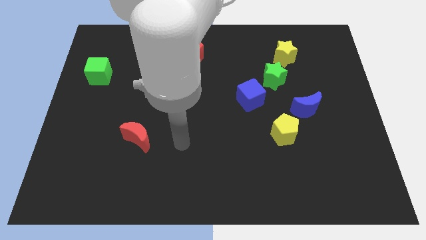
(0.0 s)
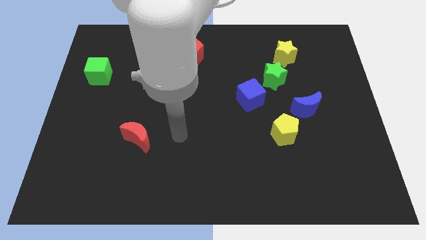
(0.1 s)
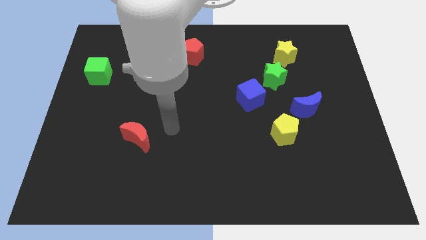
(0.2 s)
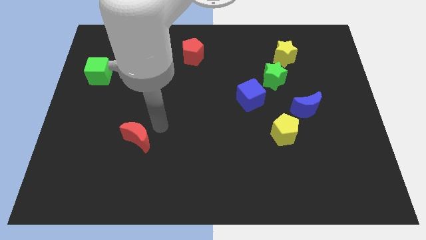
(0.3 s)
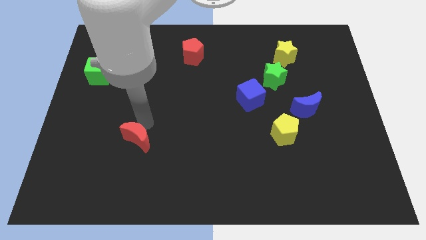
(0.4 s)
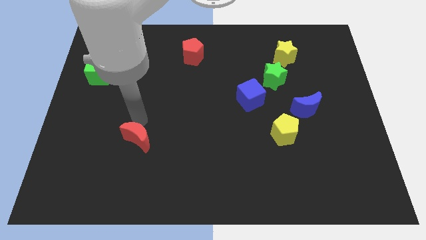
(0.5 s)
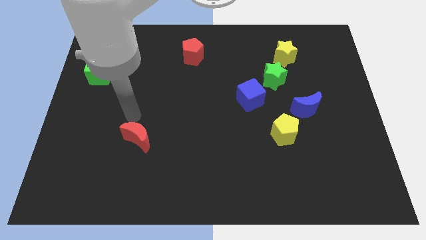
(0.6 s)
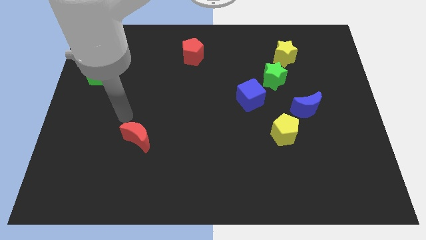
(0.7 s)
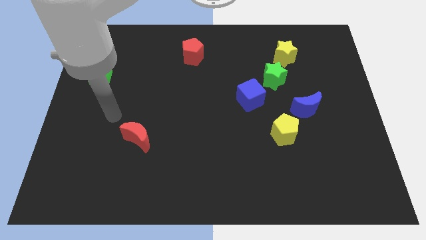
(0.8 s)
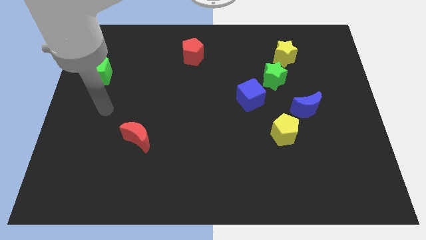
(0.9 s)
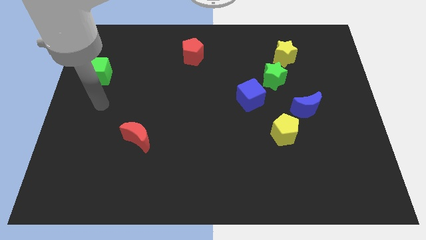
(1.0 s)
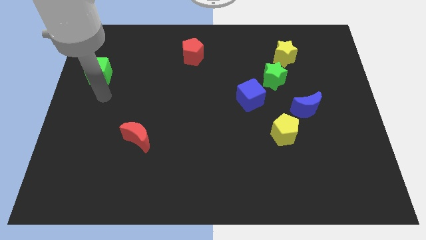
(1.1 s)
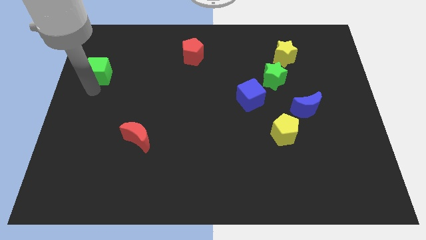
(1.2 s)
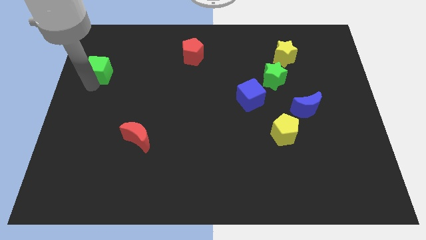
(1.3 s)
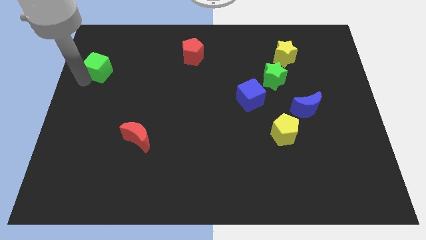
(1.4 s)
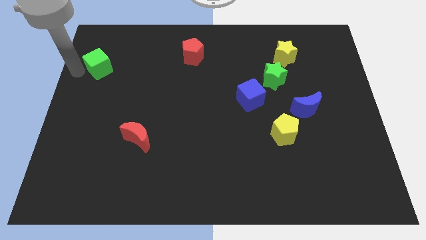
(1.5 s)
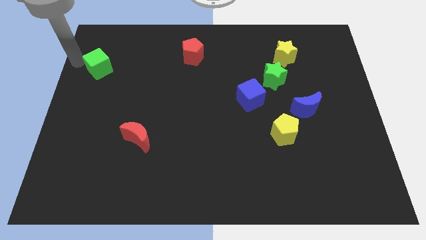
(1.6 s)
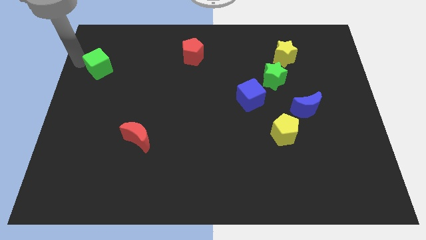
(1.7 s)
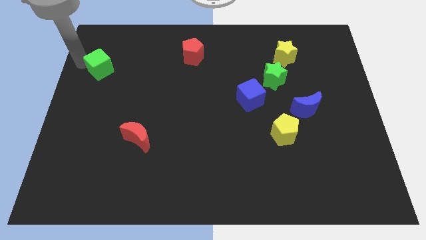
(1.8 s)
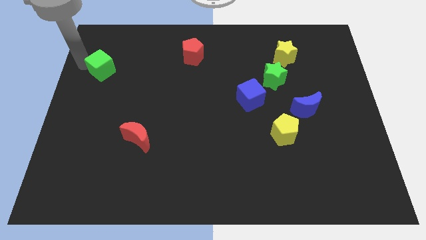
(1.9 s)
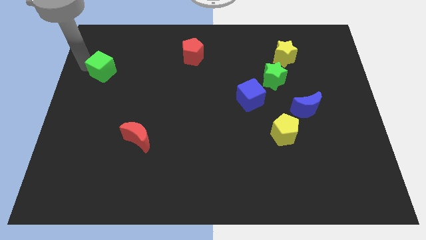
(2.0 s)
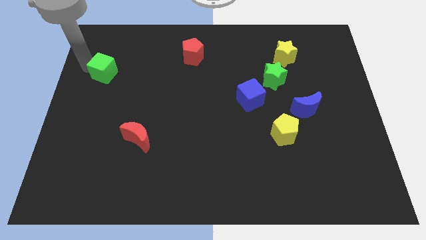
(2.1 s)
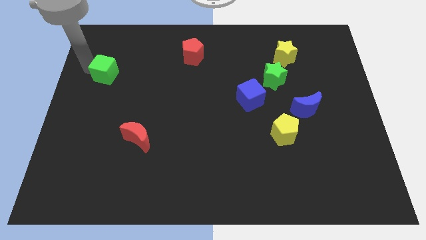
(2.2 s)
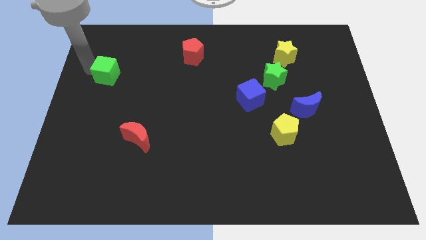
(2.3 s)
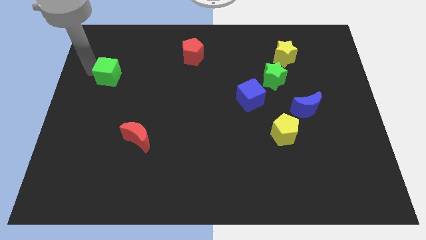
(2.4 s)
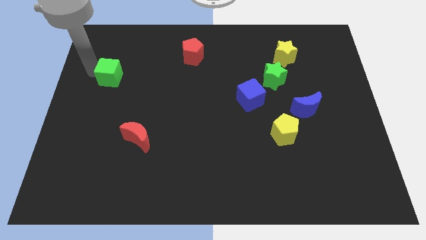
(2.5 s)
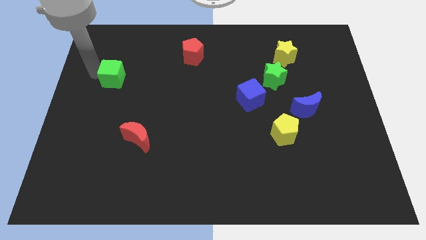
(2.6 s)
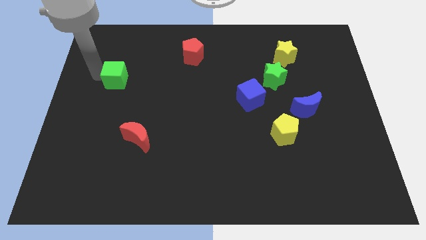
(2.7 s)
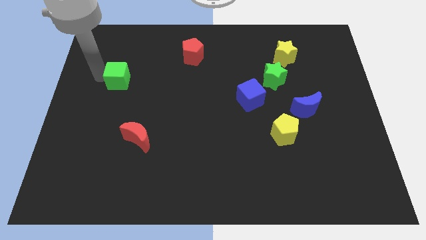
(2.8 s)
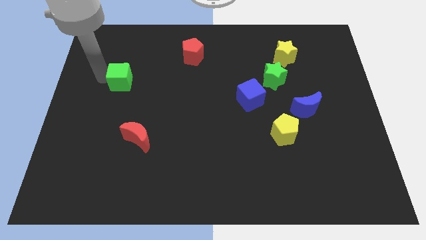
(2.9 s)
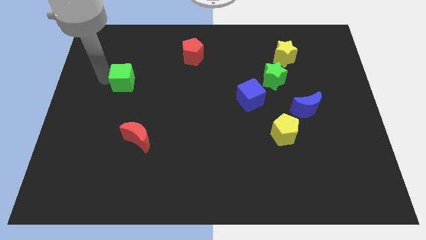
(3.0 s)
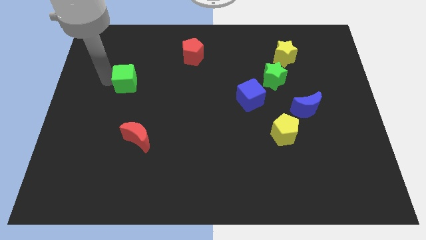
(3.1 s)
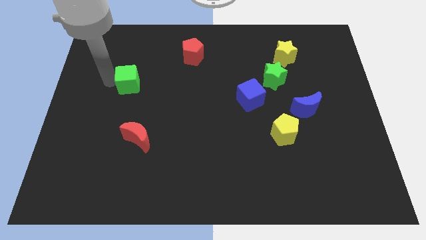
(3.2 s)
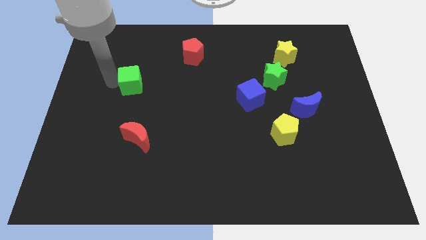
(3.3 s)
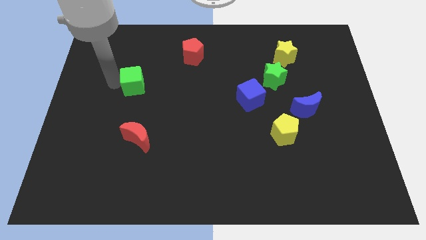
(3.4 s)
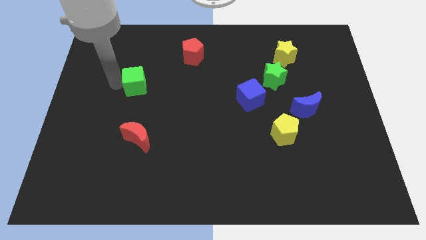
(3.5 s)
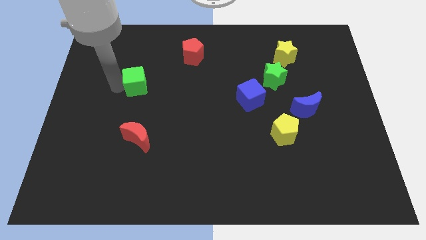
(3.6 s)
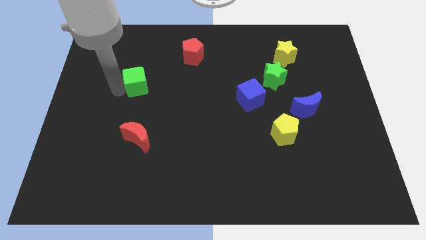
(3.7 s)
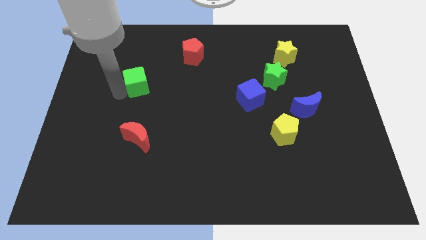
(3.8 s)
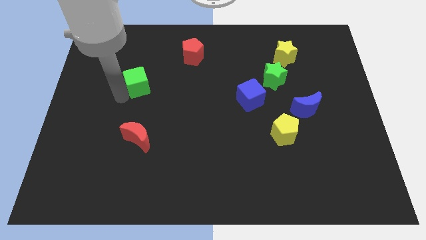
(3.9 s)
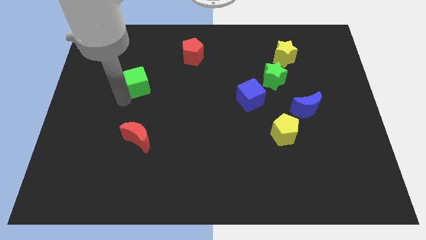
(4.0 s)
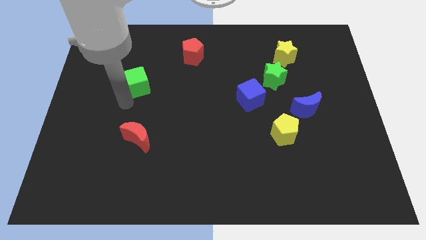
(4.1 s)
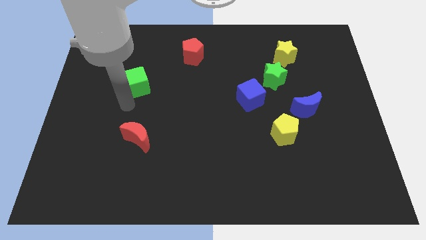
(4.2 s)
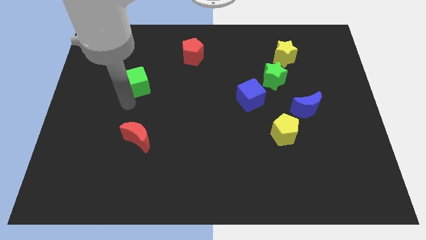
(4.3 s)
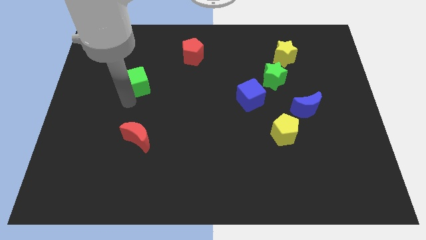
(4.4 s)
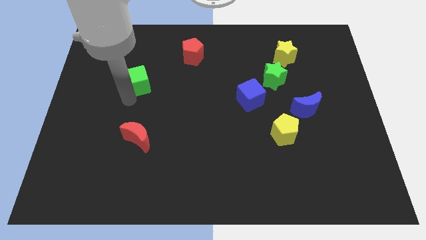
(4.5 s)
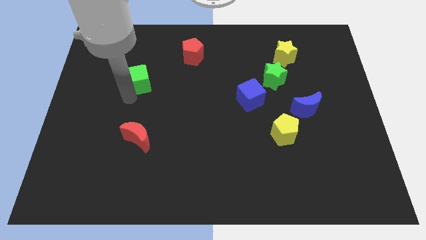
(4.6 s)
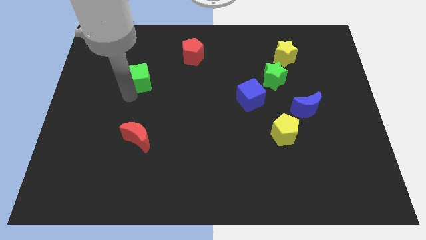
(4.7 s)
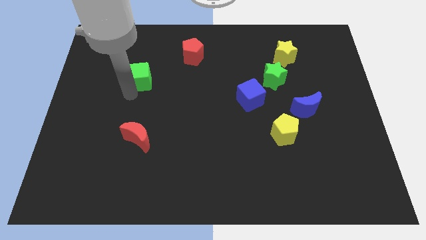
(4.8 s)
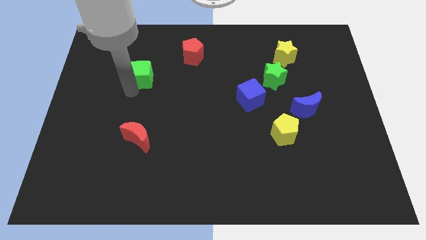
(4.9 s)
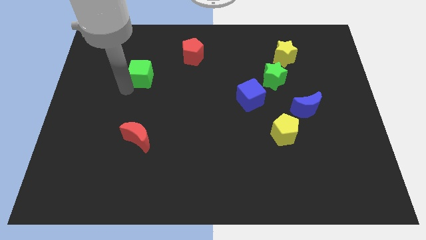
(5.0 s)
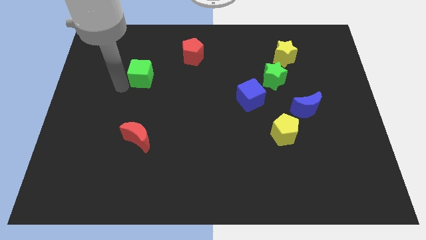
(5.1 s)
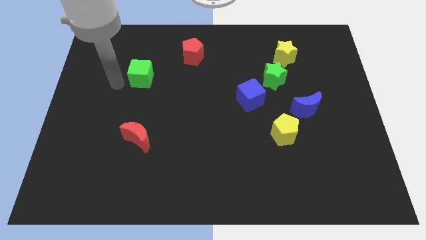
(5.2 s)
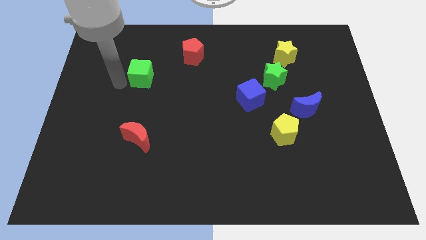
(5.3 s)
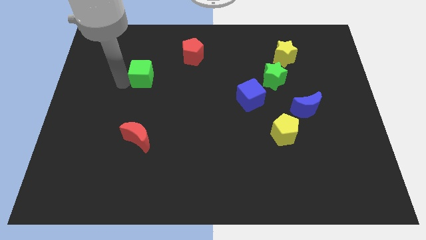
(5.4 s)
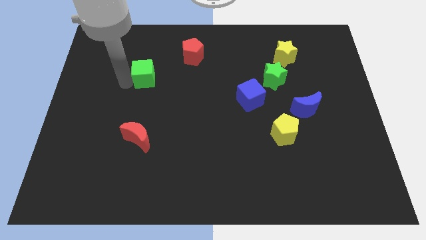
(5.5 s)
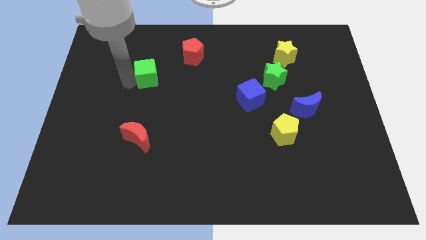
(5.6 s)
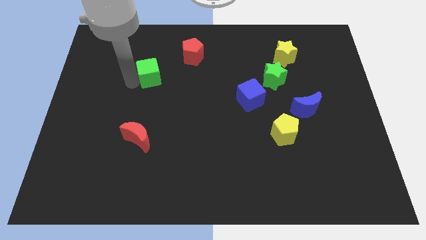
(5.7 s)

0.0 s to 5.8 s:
slide the green cube to the bottom left side of the red pentagon

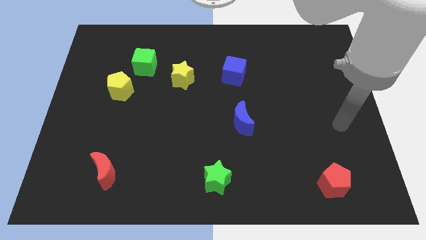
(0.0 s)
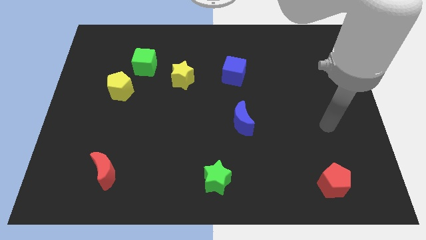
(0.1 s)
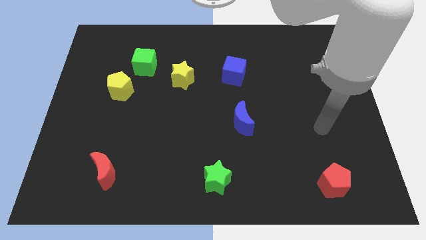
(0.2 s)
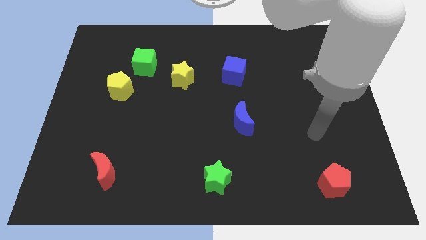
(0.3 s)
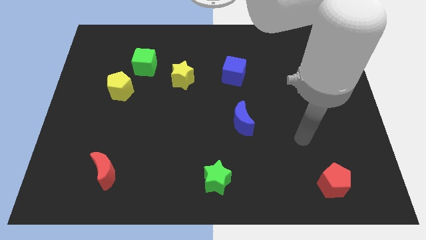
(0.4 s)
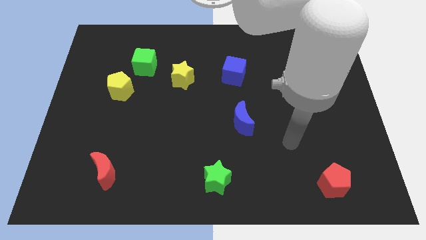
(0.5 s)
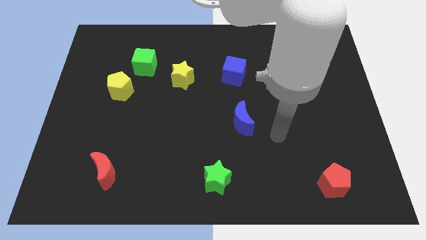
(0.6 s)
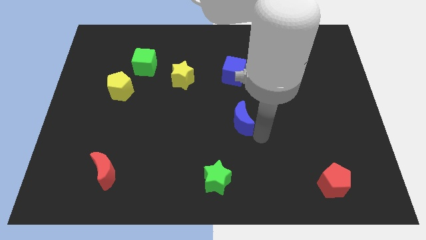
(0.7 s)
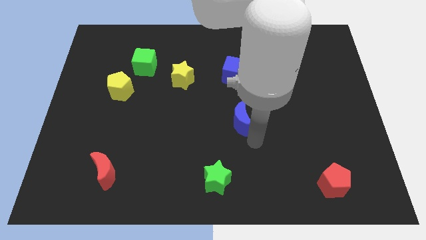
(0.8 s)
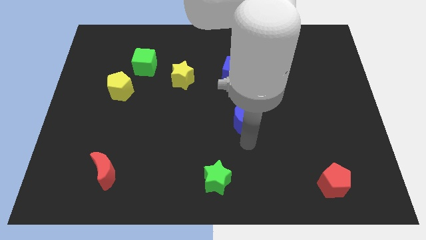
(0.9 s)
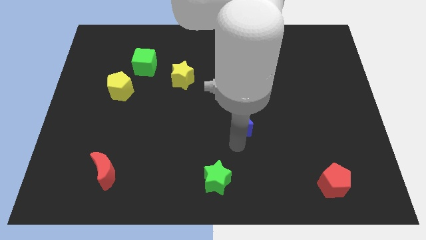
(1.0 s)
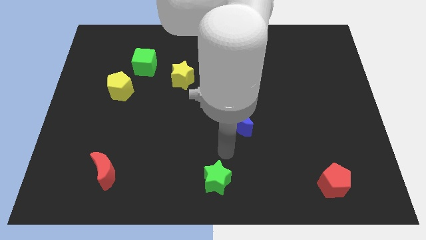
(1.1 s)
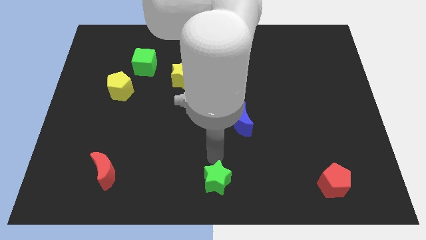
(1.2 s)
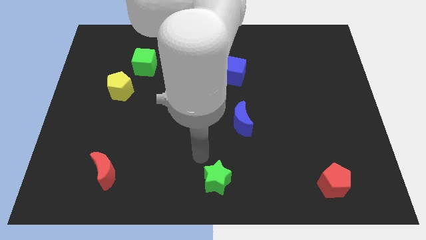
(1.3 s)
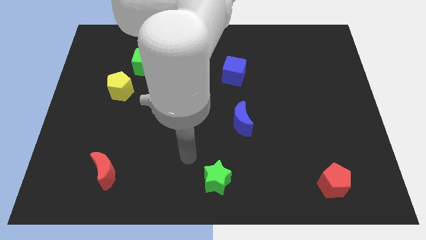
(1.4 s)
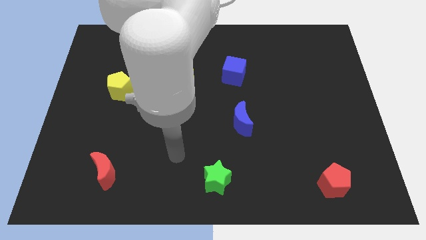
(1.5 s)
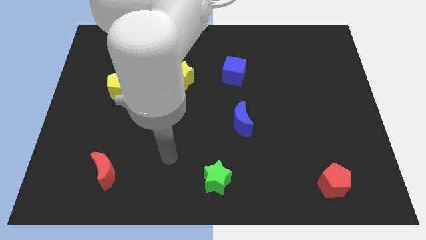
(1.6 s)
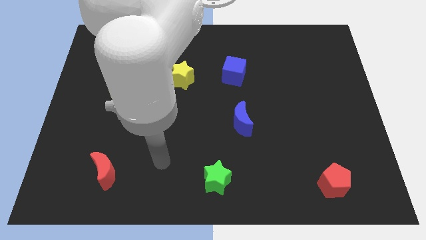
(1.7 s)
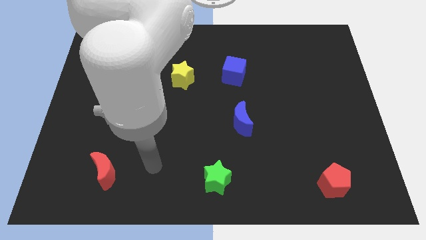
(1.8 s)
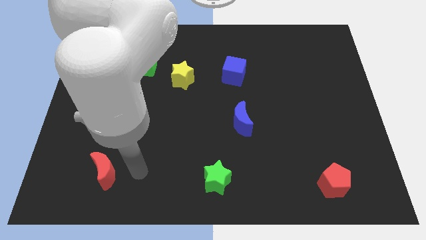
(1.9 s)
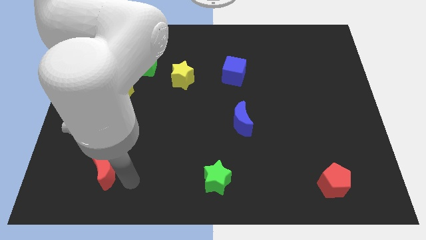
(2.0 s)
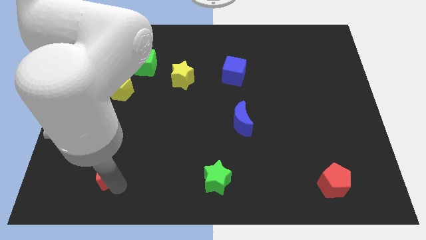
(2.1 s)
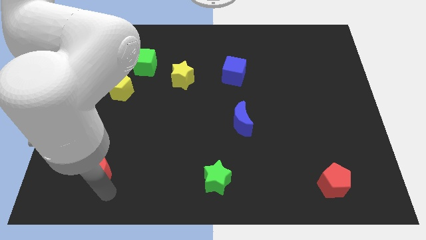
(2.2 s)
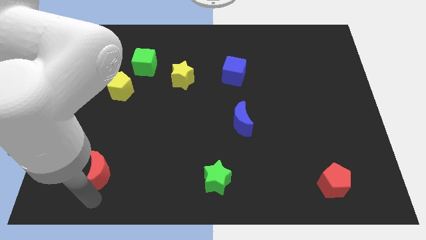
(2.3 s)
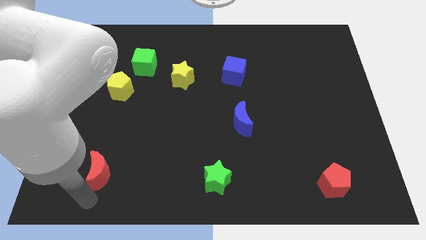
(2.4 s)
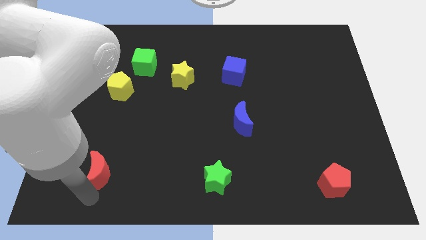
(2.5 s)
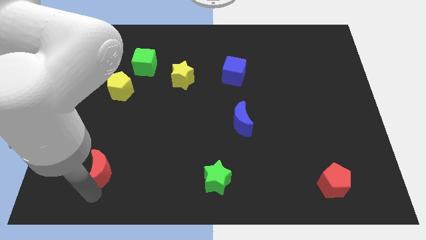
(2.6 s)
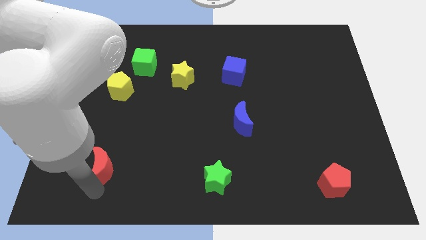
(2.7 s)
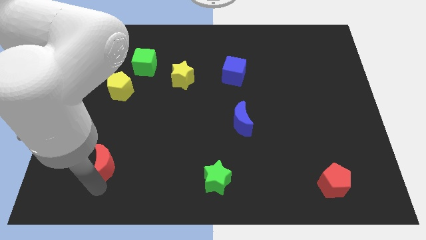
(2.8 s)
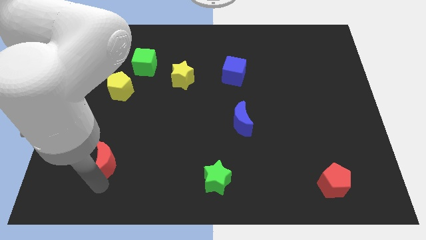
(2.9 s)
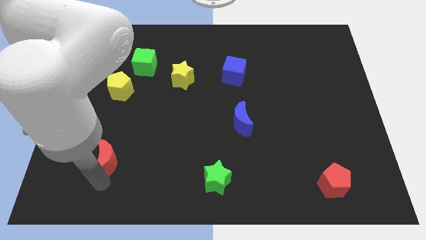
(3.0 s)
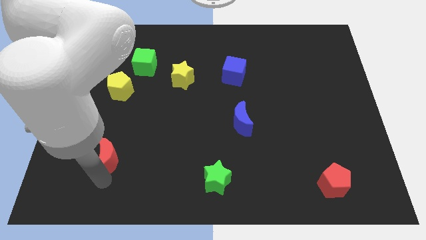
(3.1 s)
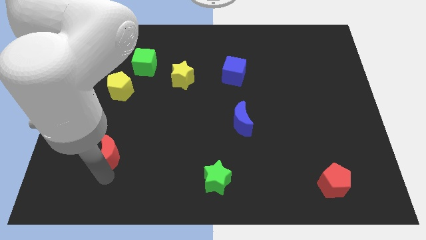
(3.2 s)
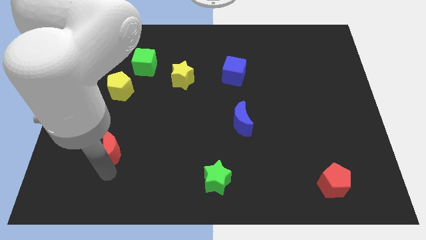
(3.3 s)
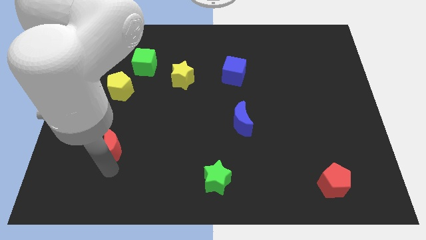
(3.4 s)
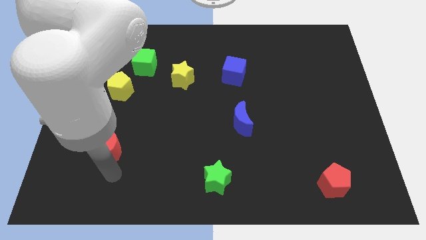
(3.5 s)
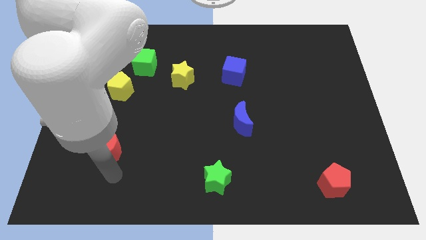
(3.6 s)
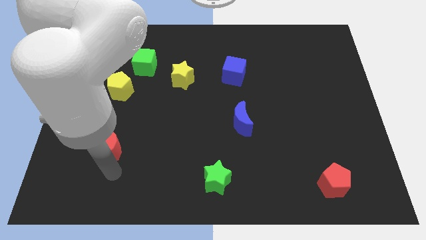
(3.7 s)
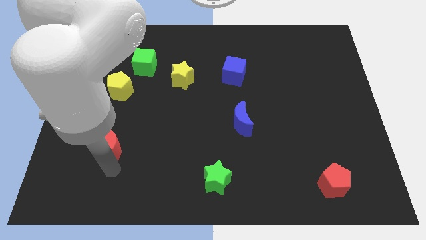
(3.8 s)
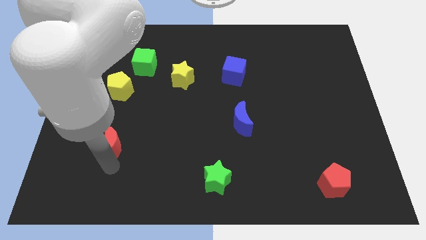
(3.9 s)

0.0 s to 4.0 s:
put the red moon below the yellow pentagon
